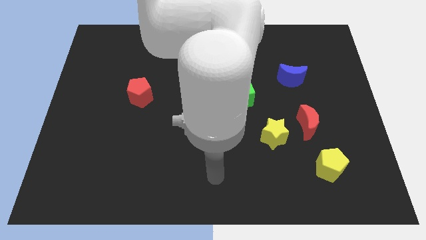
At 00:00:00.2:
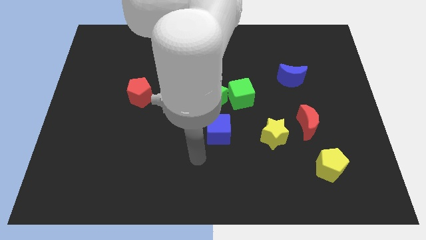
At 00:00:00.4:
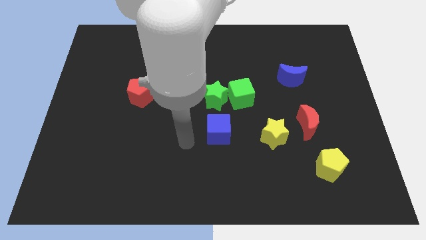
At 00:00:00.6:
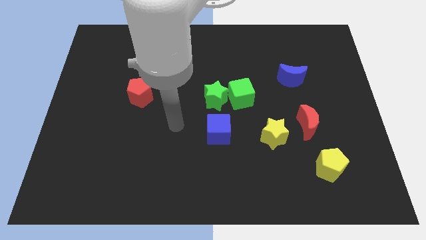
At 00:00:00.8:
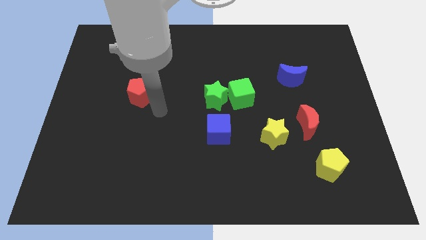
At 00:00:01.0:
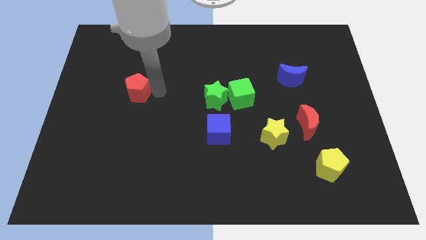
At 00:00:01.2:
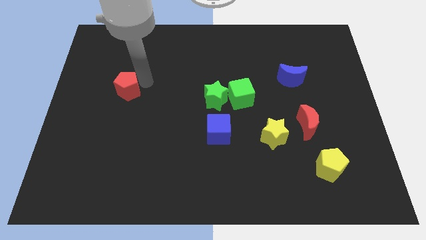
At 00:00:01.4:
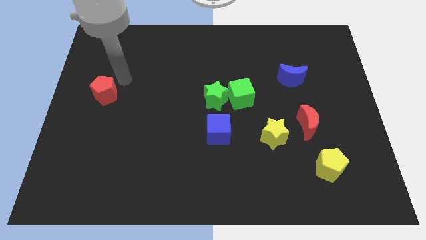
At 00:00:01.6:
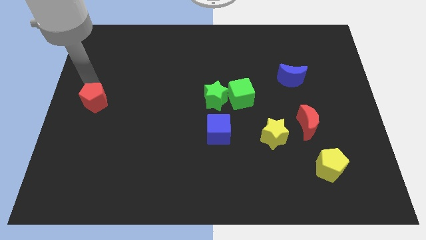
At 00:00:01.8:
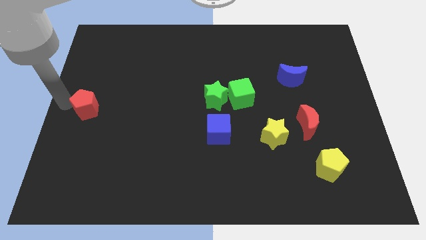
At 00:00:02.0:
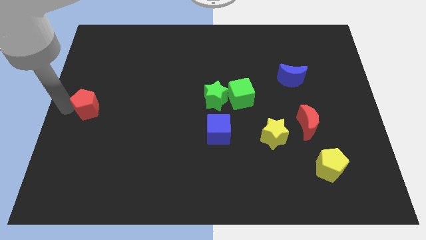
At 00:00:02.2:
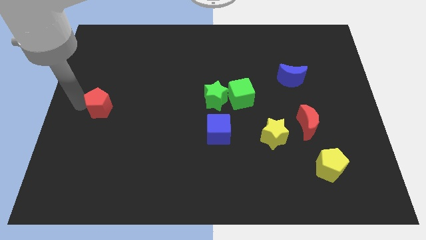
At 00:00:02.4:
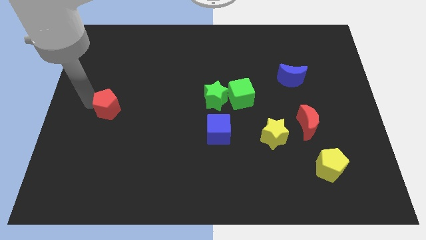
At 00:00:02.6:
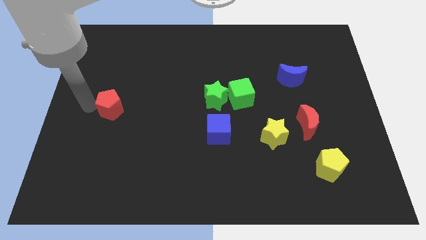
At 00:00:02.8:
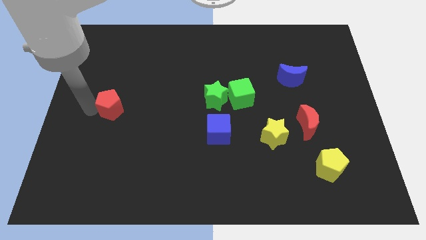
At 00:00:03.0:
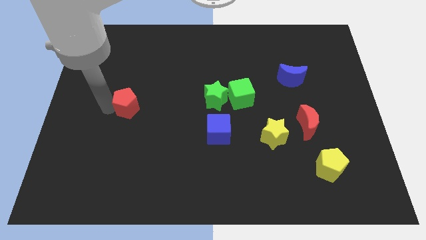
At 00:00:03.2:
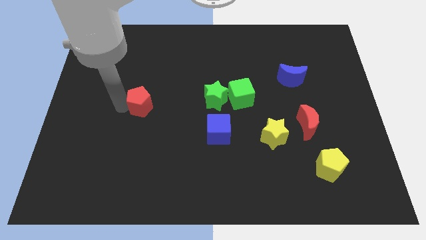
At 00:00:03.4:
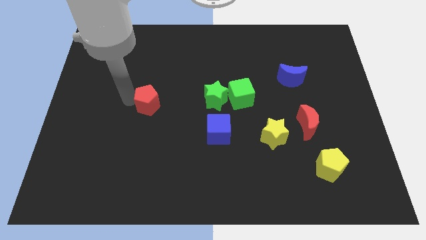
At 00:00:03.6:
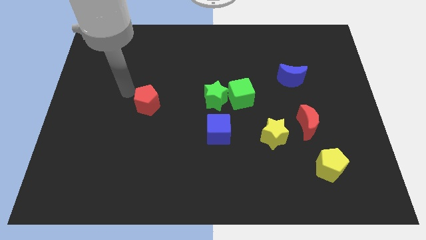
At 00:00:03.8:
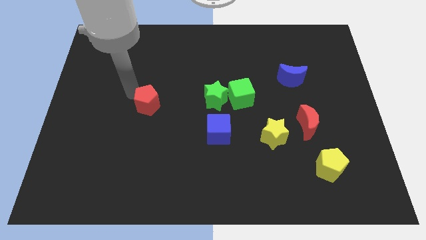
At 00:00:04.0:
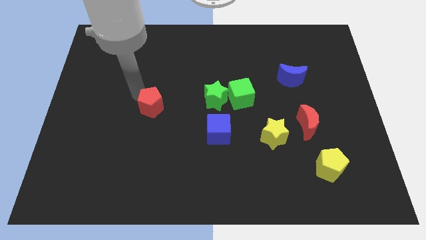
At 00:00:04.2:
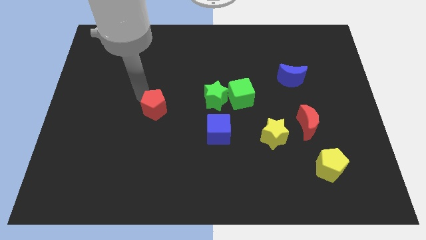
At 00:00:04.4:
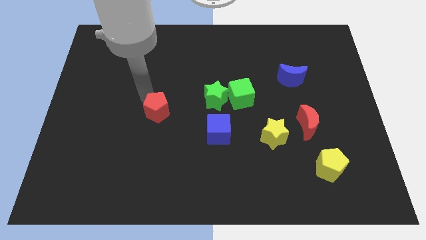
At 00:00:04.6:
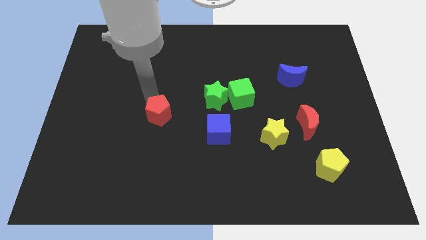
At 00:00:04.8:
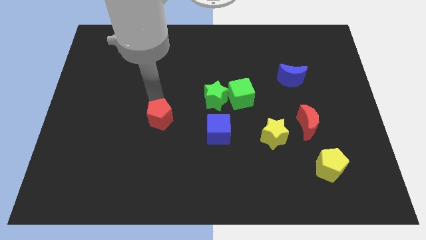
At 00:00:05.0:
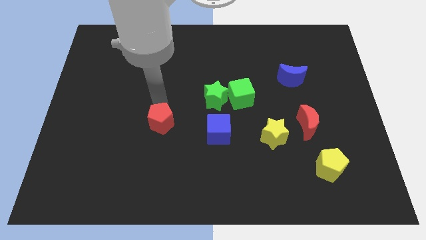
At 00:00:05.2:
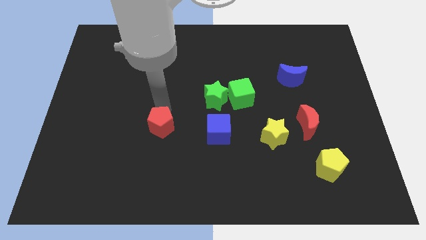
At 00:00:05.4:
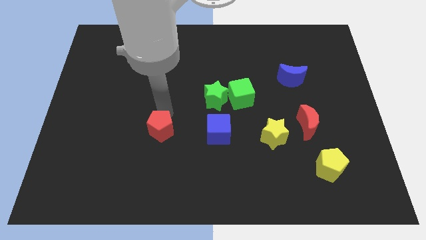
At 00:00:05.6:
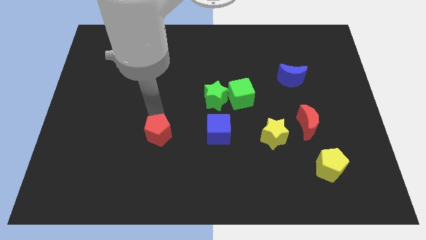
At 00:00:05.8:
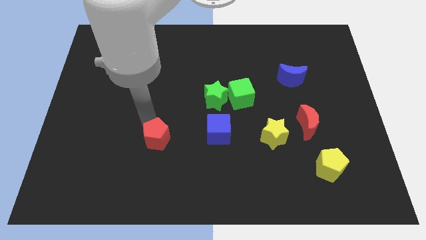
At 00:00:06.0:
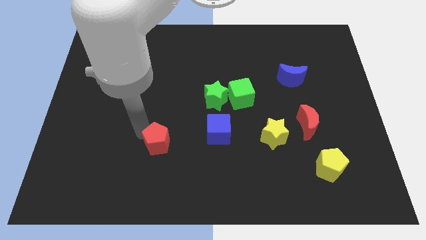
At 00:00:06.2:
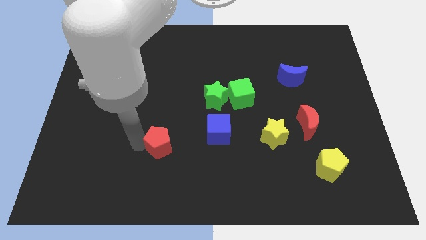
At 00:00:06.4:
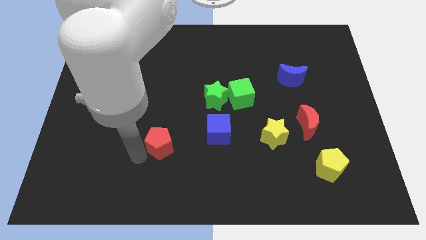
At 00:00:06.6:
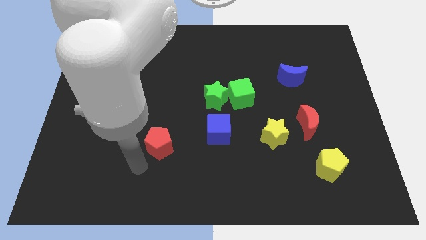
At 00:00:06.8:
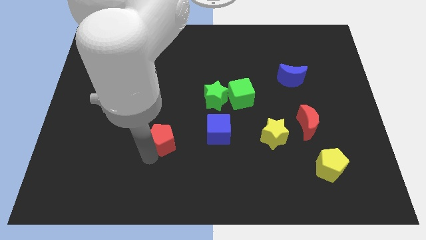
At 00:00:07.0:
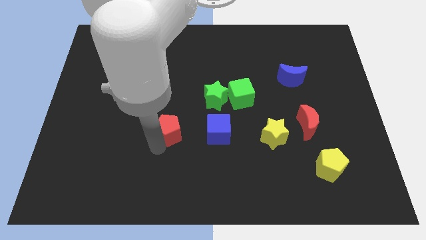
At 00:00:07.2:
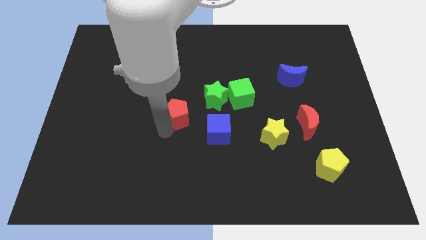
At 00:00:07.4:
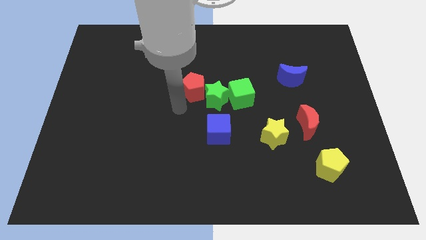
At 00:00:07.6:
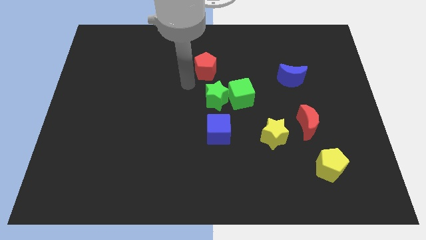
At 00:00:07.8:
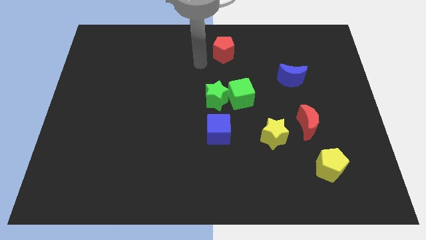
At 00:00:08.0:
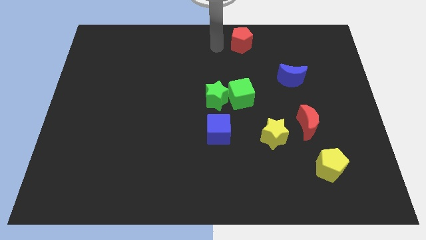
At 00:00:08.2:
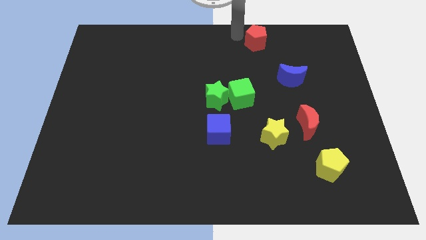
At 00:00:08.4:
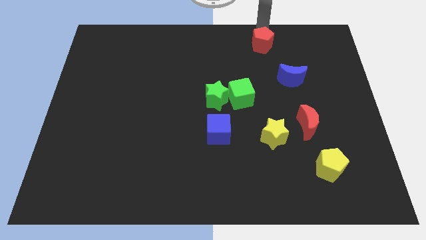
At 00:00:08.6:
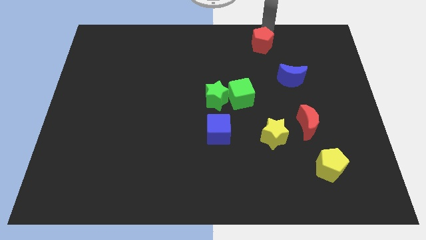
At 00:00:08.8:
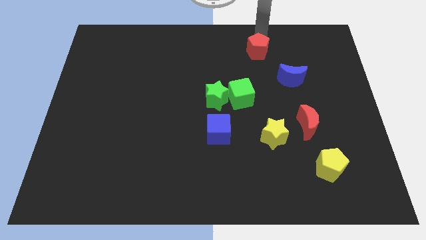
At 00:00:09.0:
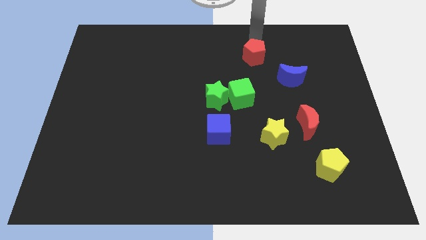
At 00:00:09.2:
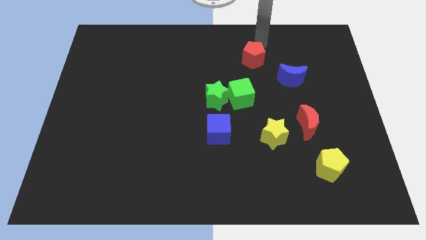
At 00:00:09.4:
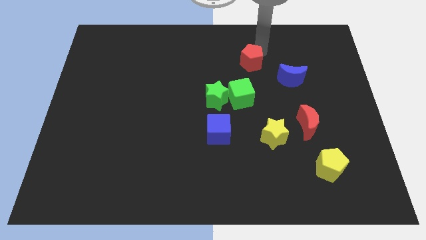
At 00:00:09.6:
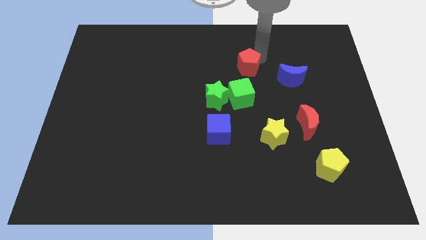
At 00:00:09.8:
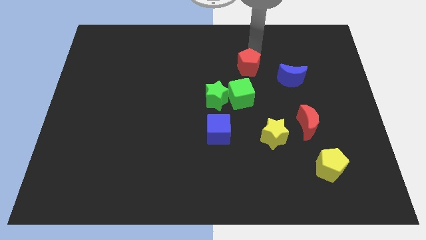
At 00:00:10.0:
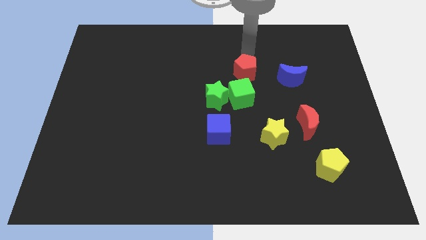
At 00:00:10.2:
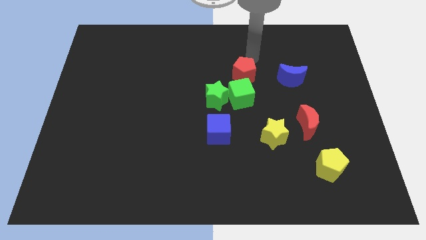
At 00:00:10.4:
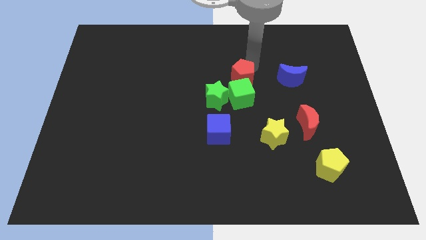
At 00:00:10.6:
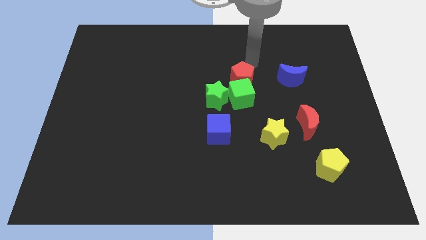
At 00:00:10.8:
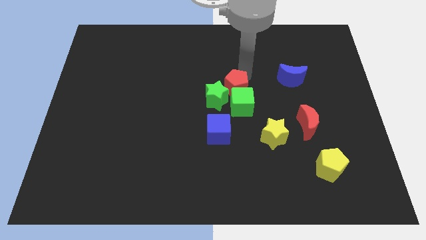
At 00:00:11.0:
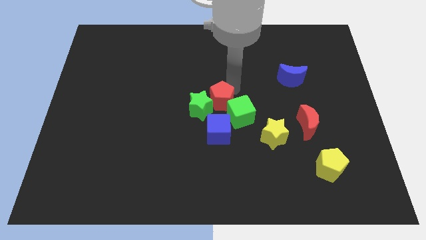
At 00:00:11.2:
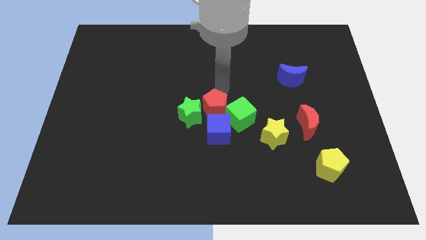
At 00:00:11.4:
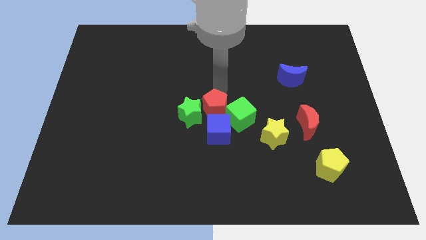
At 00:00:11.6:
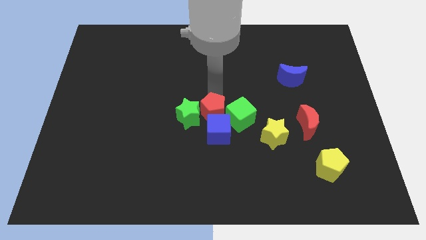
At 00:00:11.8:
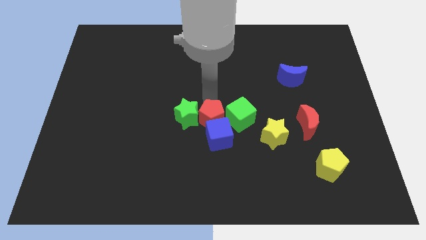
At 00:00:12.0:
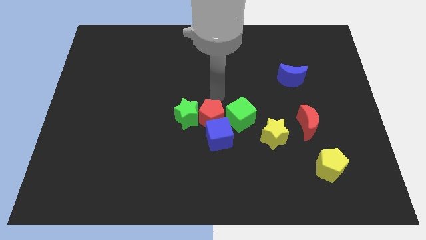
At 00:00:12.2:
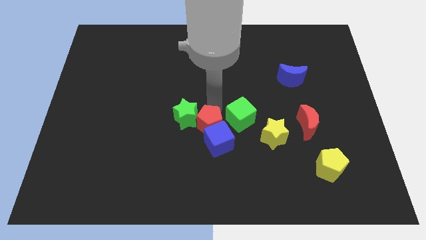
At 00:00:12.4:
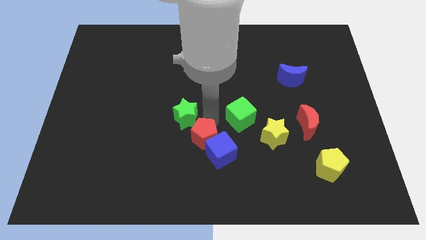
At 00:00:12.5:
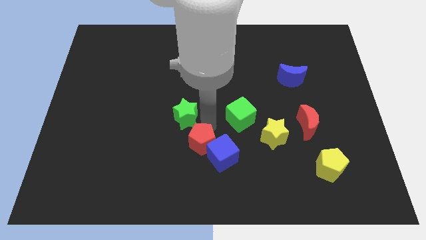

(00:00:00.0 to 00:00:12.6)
push the red pentagon down and then right

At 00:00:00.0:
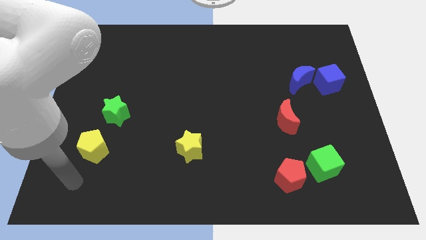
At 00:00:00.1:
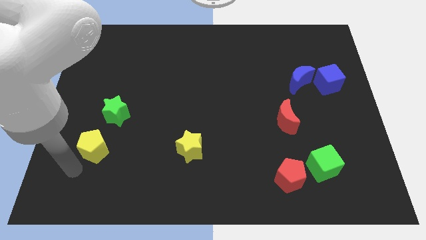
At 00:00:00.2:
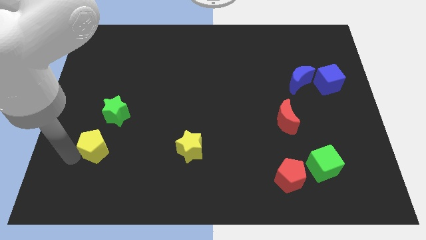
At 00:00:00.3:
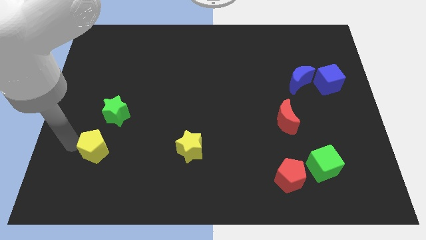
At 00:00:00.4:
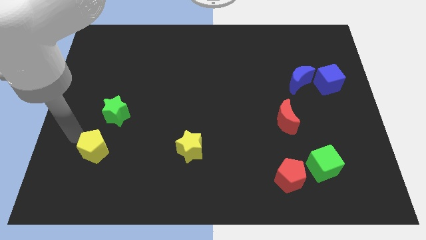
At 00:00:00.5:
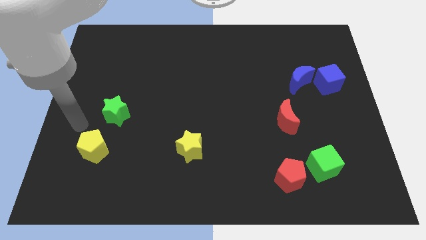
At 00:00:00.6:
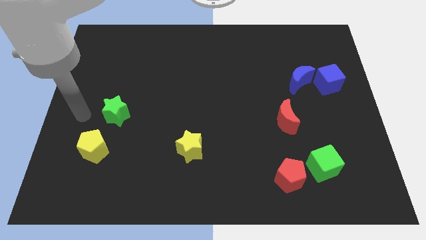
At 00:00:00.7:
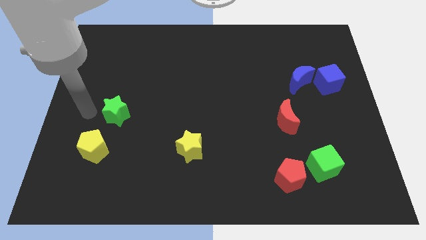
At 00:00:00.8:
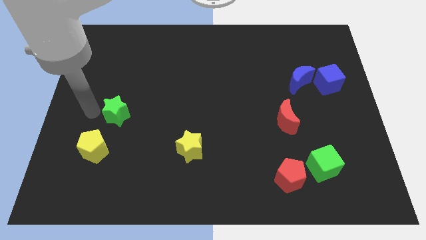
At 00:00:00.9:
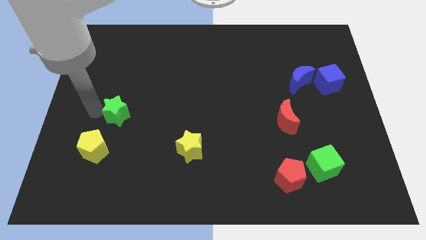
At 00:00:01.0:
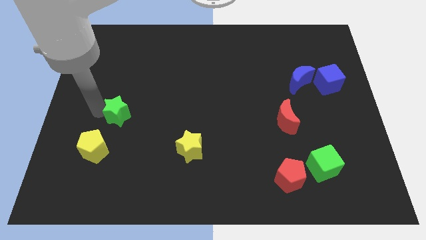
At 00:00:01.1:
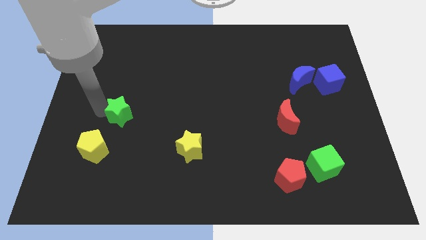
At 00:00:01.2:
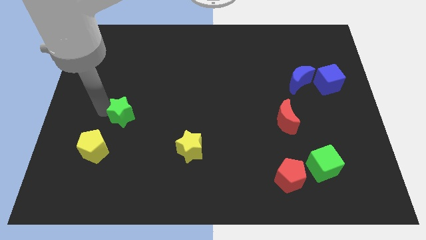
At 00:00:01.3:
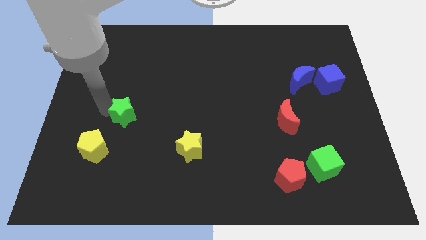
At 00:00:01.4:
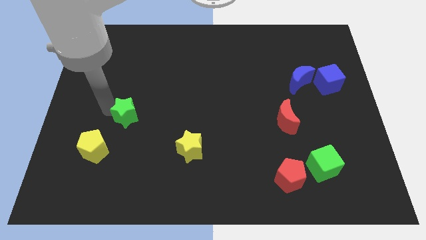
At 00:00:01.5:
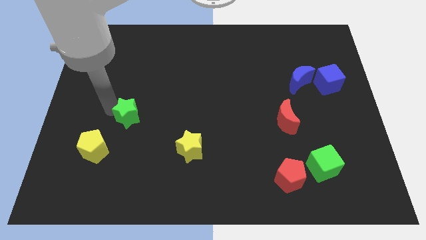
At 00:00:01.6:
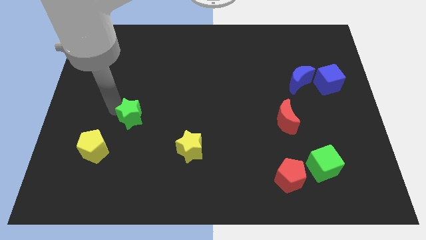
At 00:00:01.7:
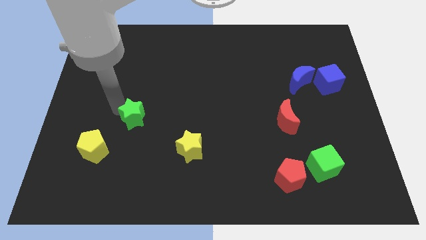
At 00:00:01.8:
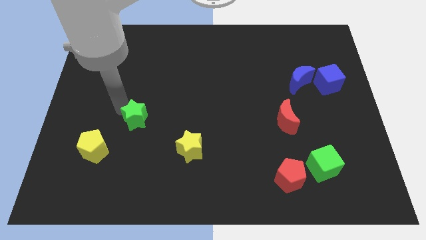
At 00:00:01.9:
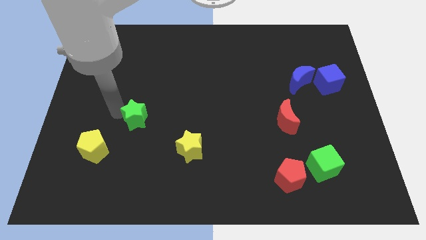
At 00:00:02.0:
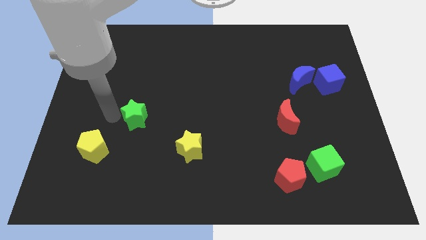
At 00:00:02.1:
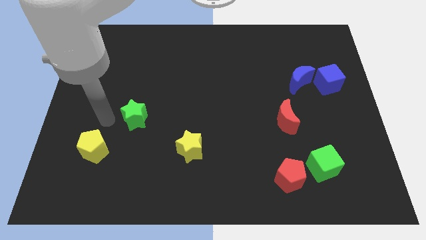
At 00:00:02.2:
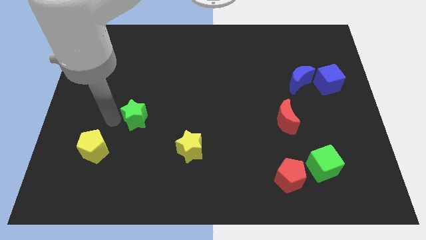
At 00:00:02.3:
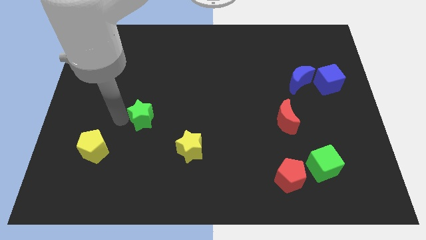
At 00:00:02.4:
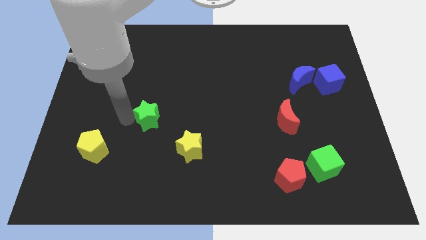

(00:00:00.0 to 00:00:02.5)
slightly move the green star right
